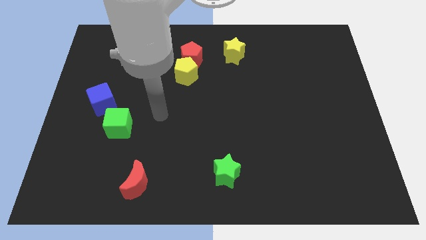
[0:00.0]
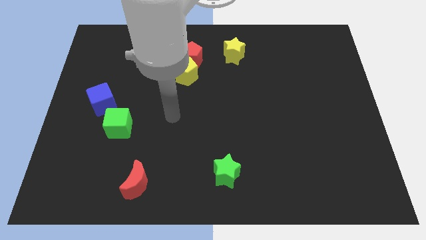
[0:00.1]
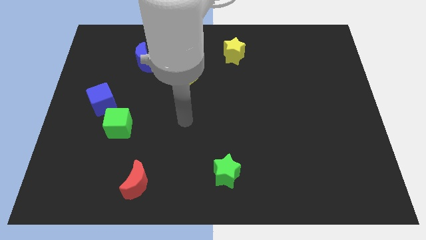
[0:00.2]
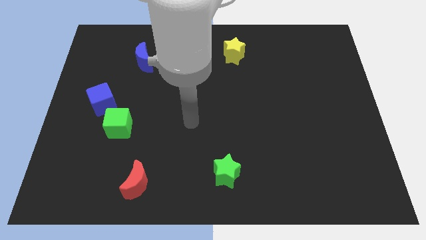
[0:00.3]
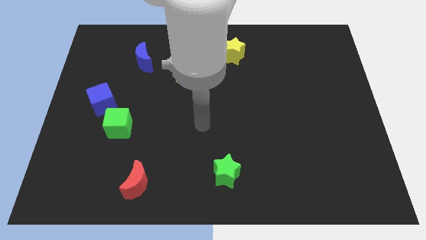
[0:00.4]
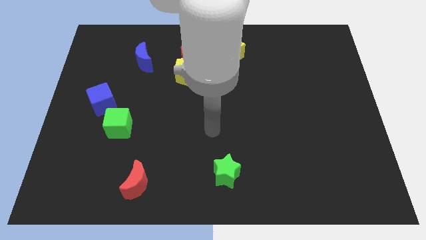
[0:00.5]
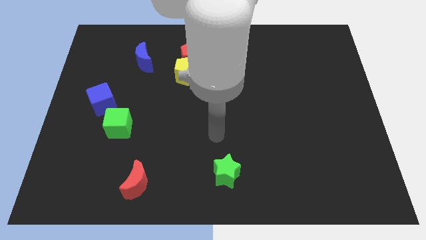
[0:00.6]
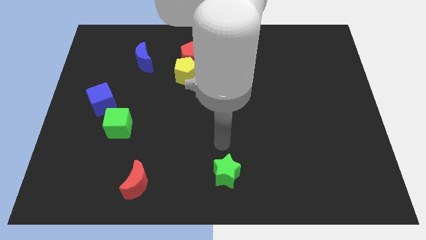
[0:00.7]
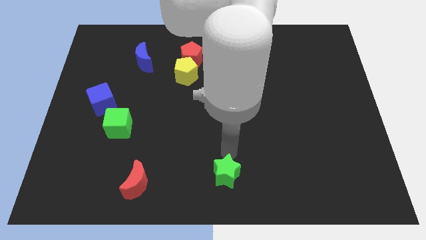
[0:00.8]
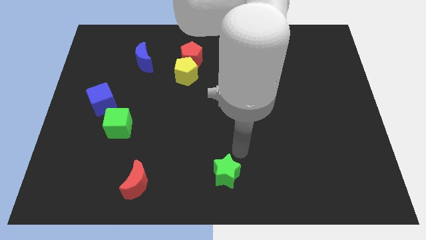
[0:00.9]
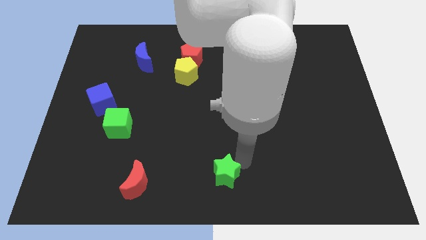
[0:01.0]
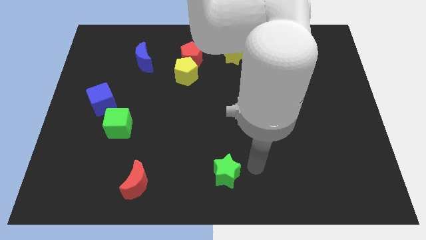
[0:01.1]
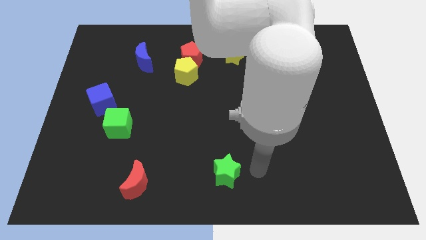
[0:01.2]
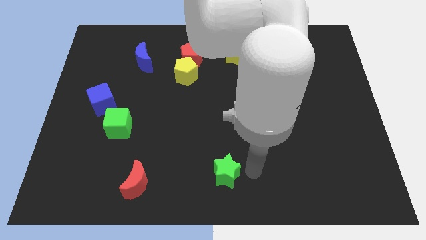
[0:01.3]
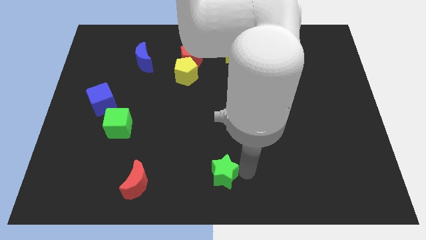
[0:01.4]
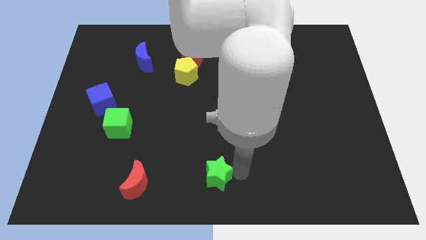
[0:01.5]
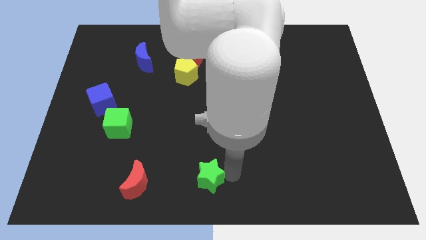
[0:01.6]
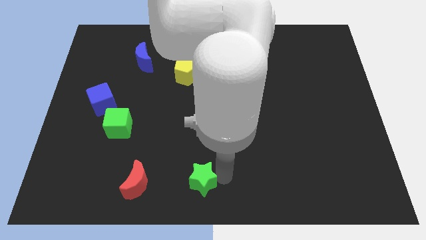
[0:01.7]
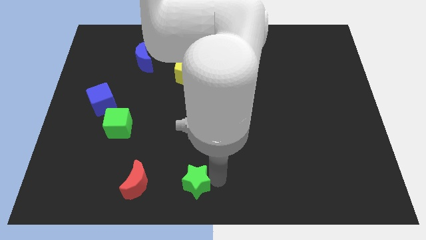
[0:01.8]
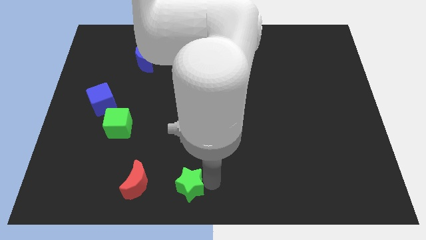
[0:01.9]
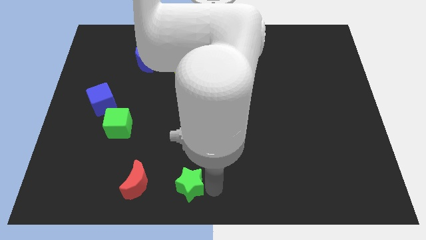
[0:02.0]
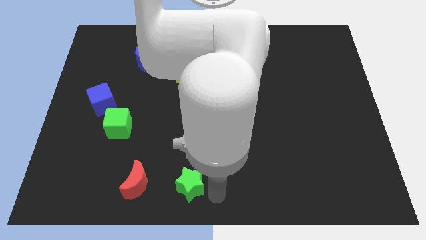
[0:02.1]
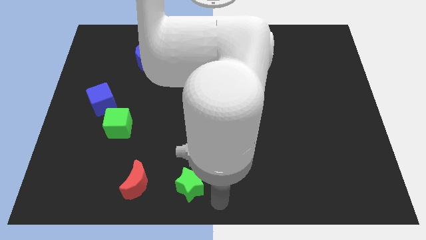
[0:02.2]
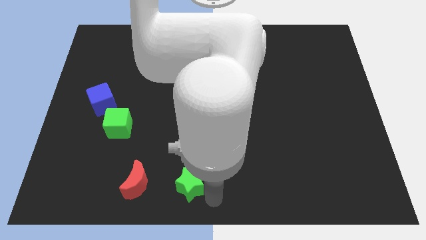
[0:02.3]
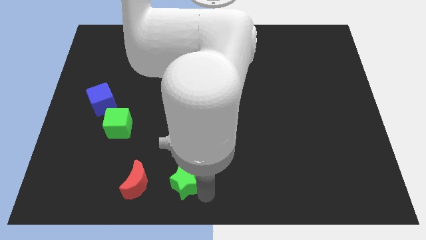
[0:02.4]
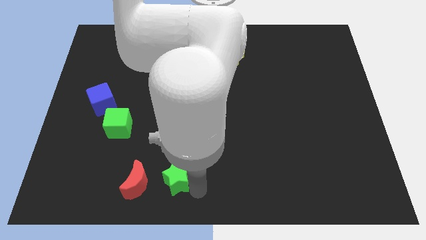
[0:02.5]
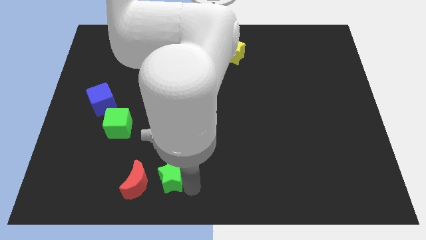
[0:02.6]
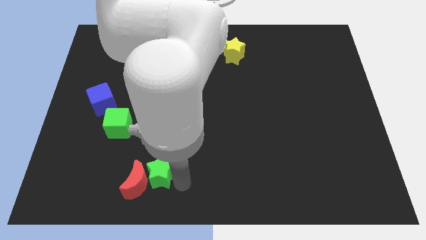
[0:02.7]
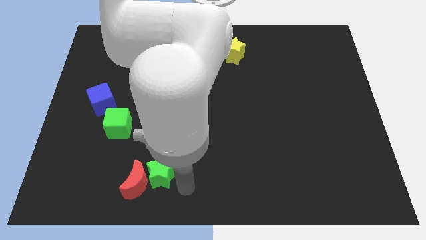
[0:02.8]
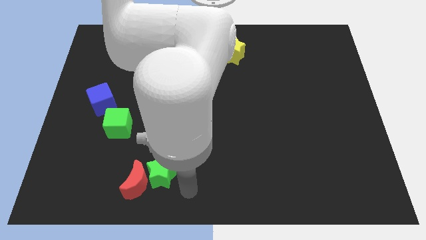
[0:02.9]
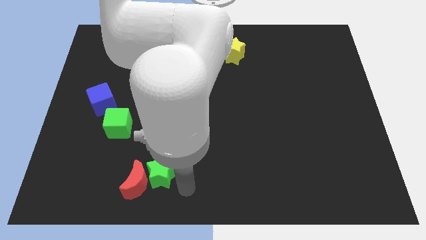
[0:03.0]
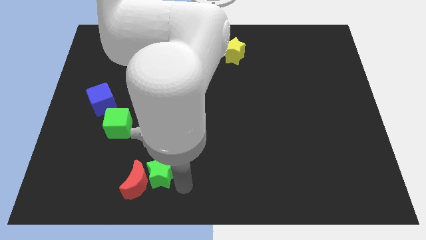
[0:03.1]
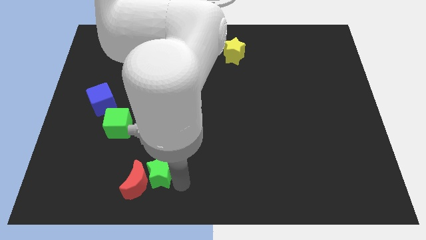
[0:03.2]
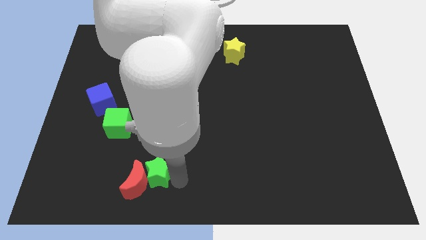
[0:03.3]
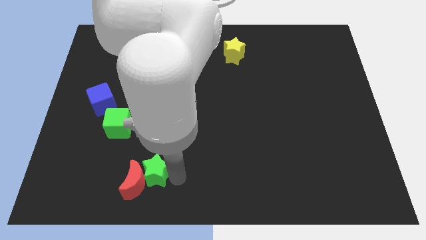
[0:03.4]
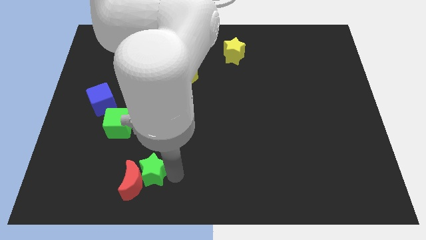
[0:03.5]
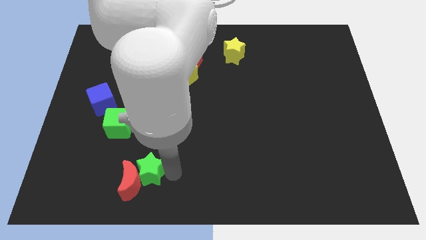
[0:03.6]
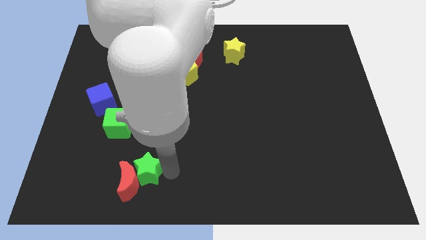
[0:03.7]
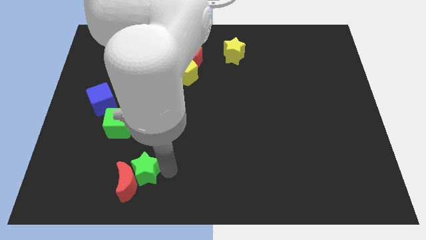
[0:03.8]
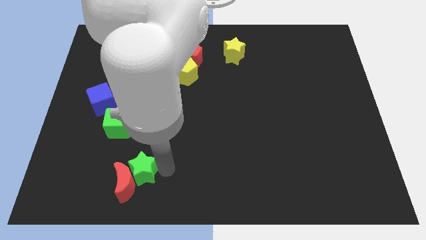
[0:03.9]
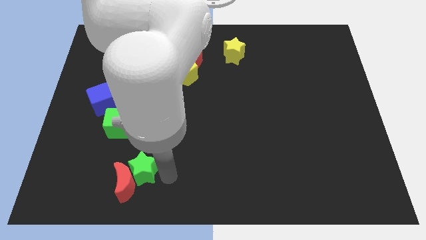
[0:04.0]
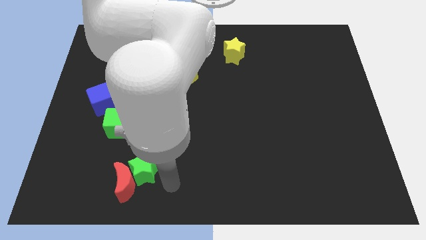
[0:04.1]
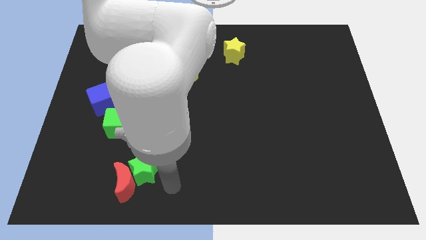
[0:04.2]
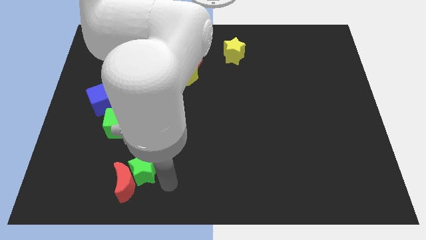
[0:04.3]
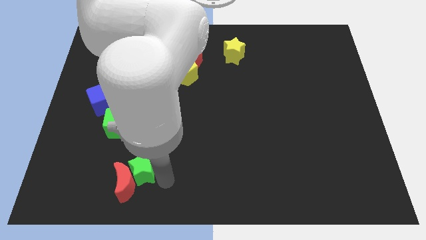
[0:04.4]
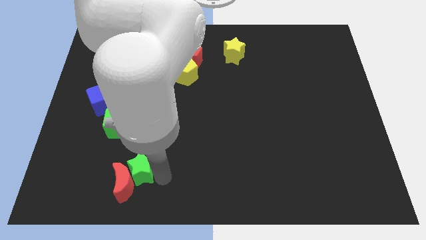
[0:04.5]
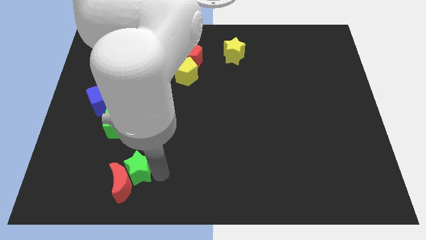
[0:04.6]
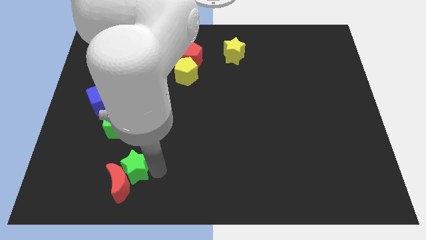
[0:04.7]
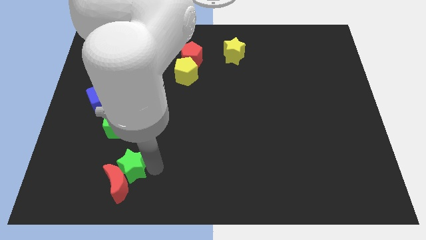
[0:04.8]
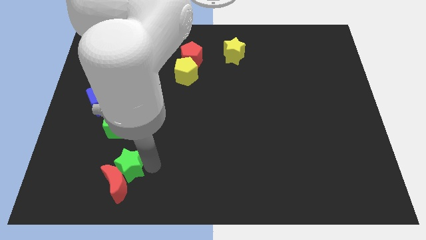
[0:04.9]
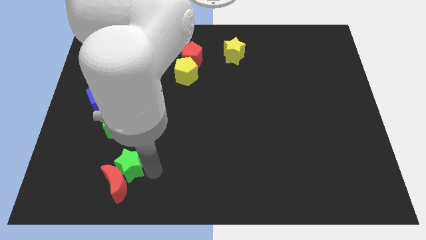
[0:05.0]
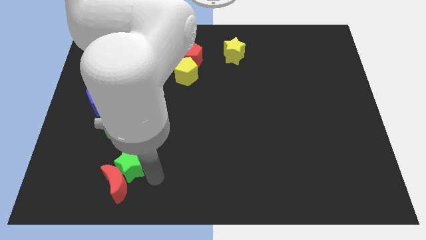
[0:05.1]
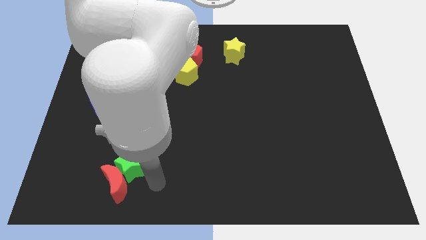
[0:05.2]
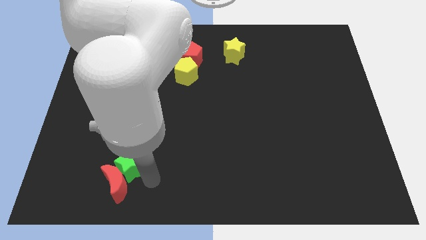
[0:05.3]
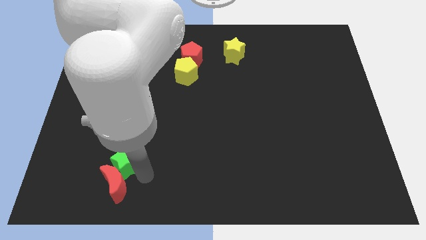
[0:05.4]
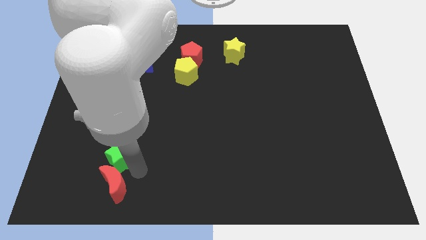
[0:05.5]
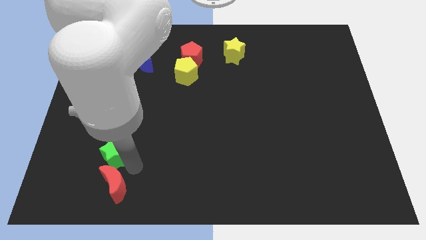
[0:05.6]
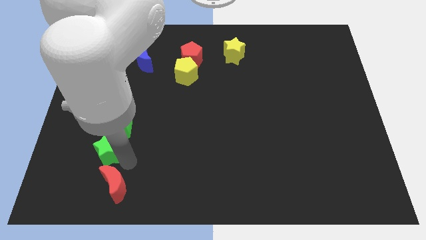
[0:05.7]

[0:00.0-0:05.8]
slide the green star to the bottom left side of the green cube
